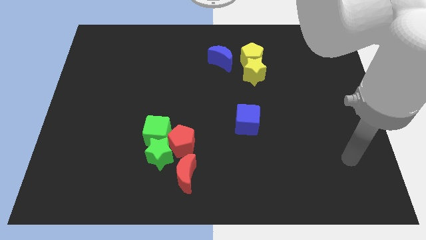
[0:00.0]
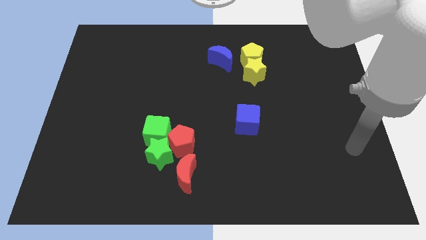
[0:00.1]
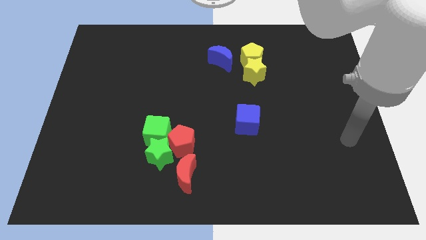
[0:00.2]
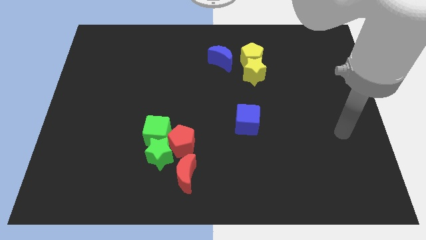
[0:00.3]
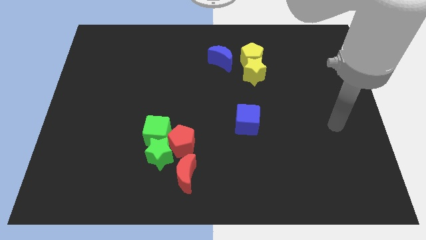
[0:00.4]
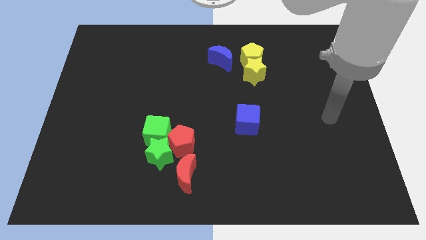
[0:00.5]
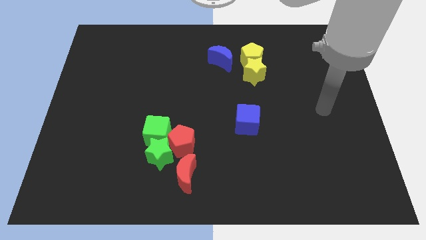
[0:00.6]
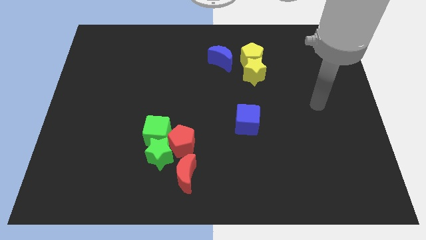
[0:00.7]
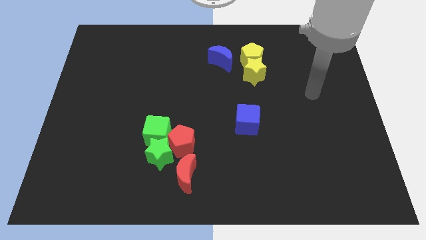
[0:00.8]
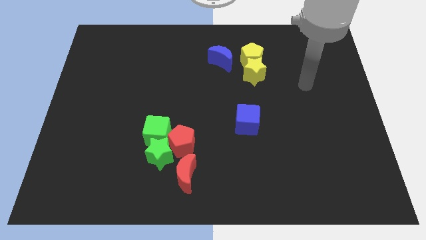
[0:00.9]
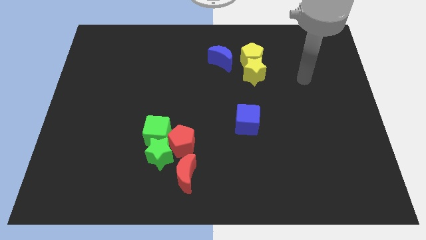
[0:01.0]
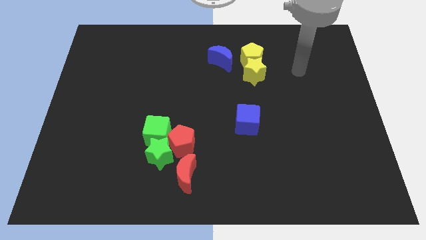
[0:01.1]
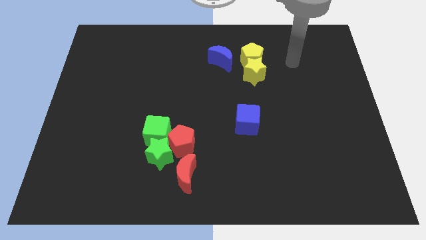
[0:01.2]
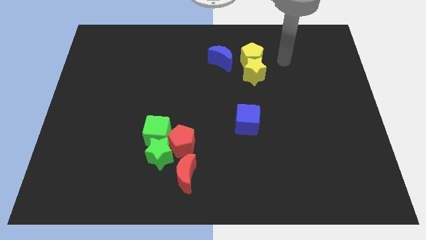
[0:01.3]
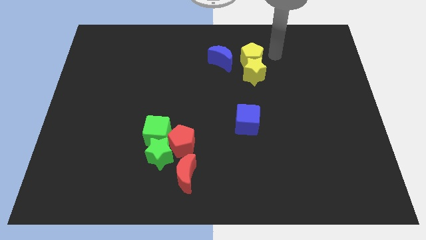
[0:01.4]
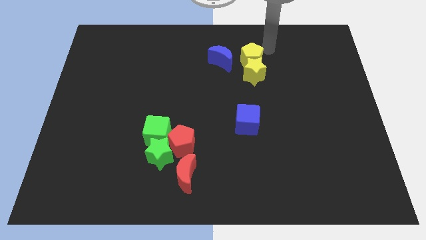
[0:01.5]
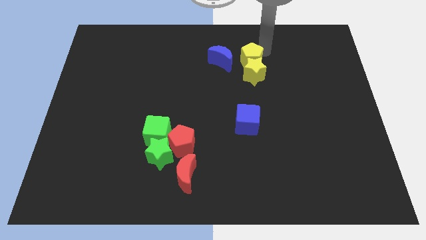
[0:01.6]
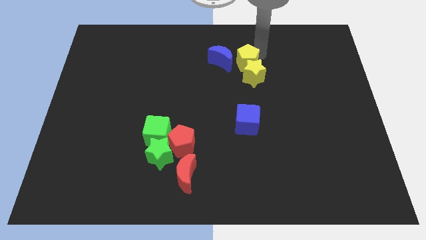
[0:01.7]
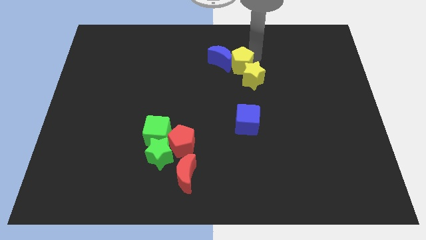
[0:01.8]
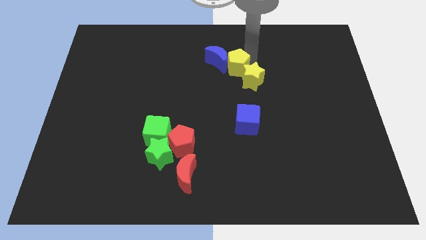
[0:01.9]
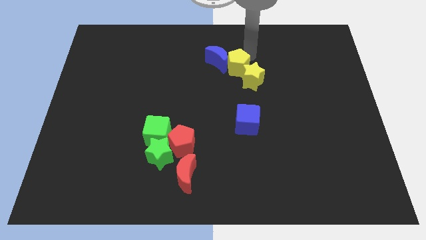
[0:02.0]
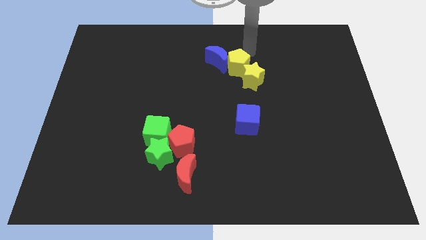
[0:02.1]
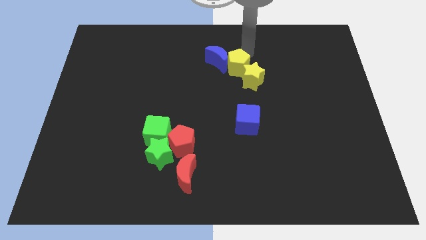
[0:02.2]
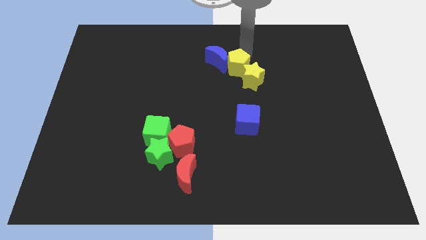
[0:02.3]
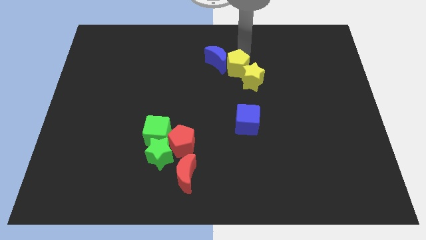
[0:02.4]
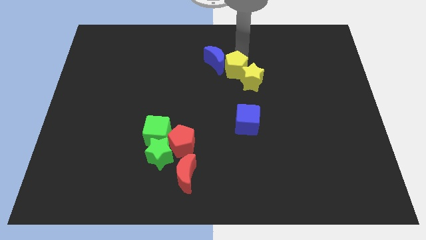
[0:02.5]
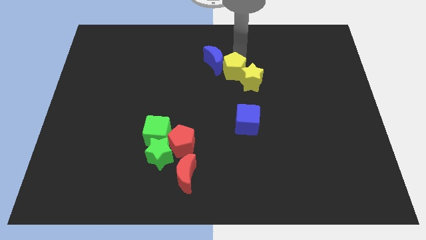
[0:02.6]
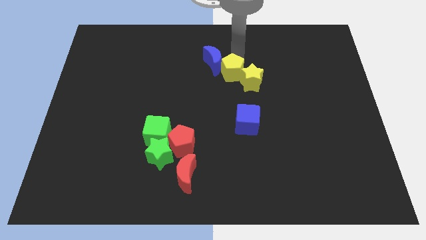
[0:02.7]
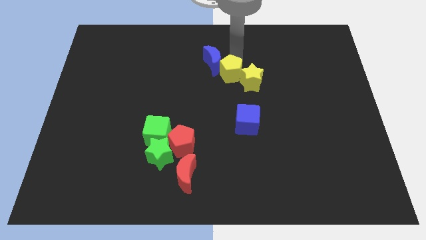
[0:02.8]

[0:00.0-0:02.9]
slide the yellow pentagon a little bit diagonally downwards and left

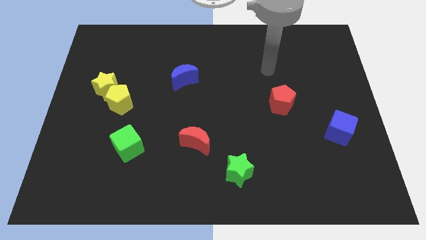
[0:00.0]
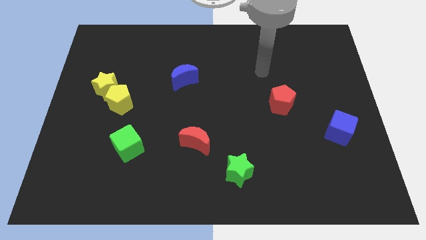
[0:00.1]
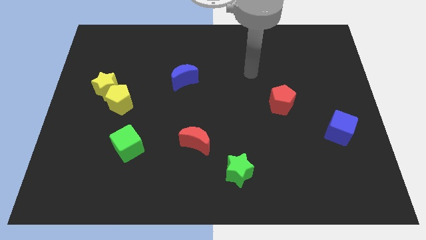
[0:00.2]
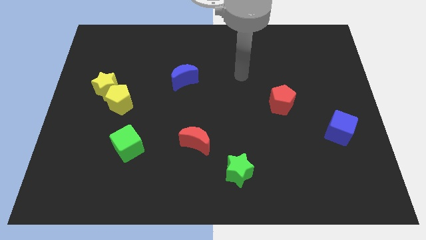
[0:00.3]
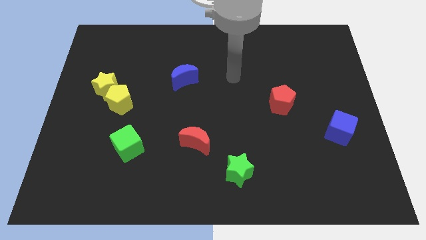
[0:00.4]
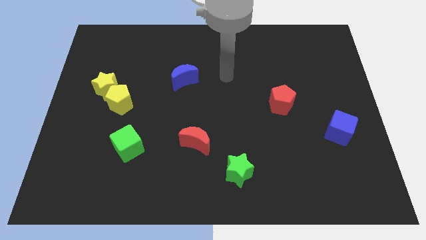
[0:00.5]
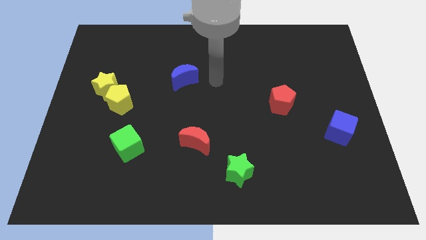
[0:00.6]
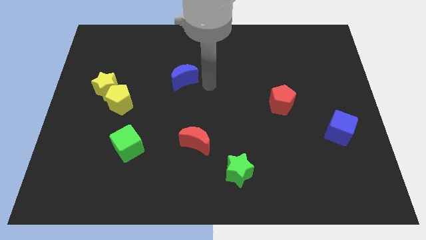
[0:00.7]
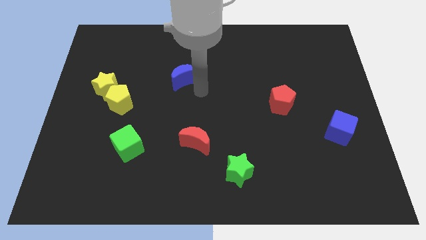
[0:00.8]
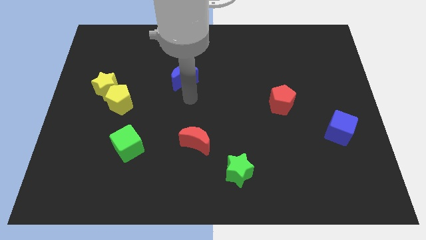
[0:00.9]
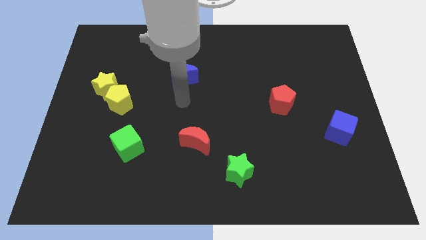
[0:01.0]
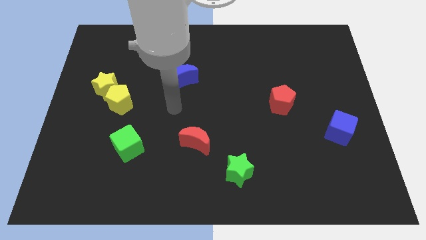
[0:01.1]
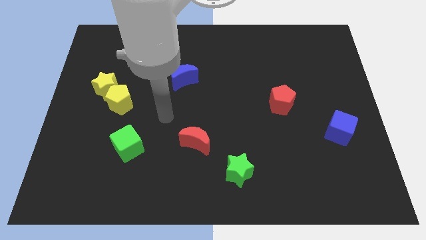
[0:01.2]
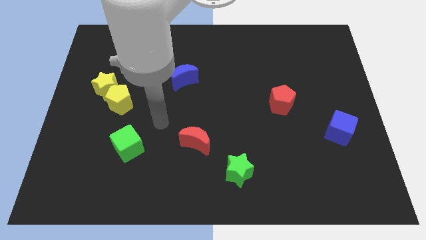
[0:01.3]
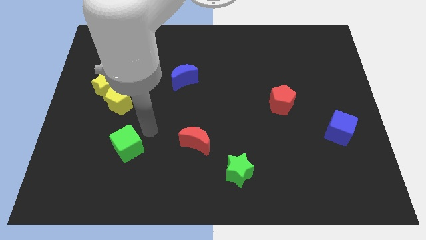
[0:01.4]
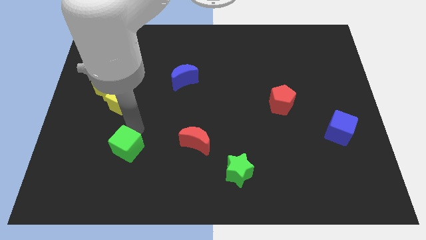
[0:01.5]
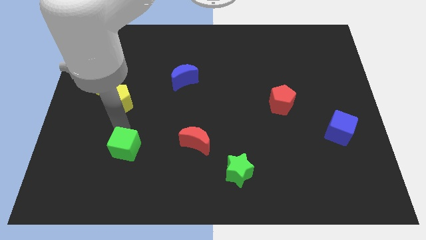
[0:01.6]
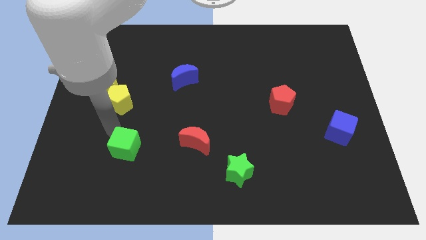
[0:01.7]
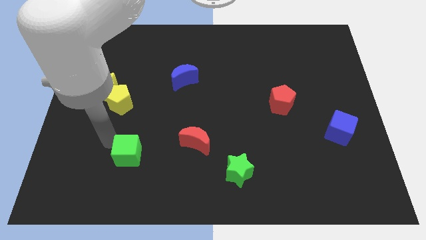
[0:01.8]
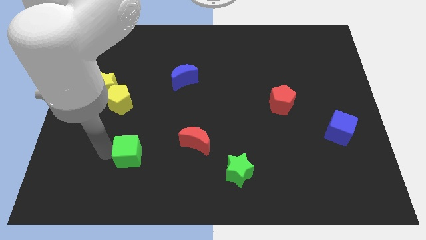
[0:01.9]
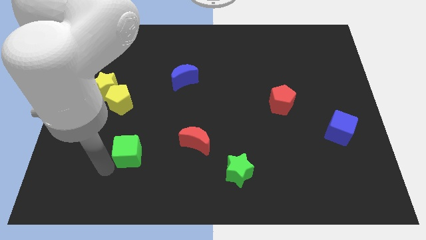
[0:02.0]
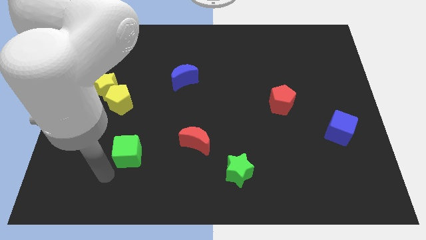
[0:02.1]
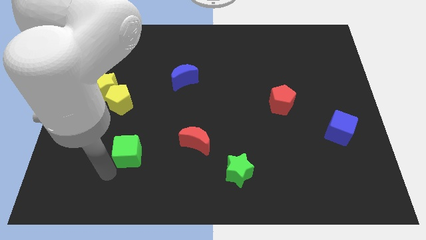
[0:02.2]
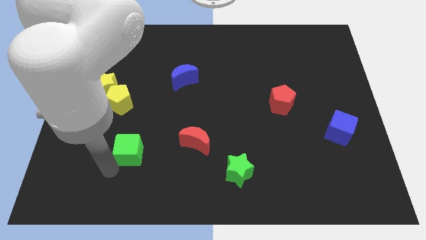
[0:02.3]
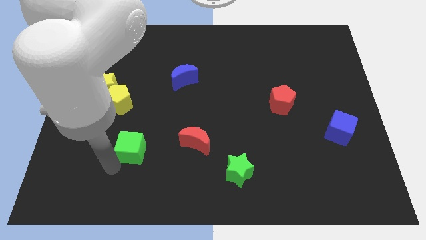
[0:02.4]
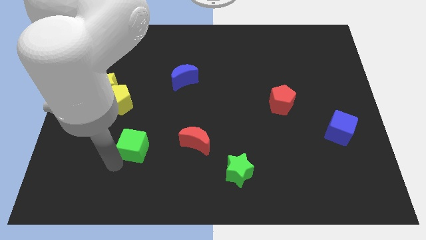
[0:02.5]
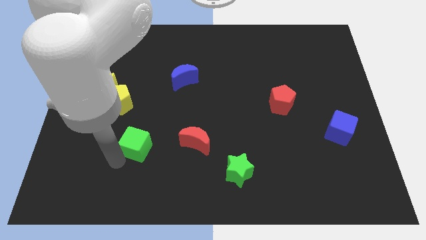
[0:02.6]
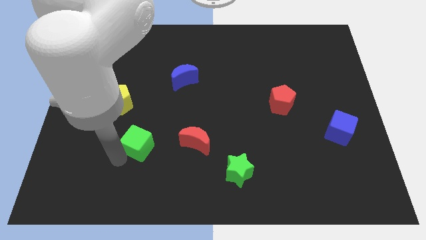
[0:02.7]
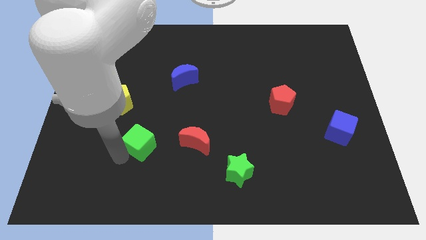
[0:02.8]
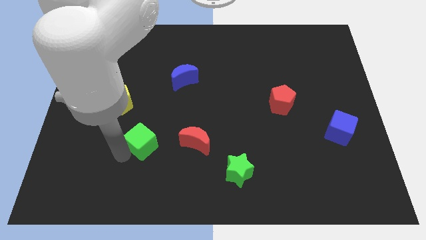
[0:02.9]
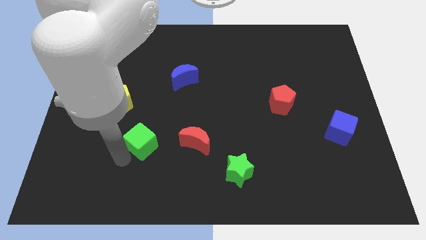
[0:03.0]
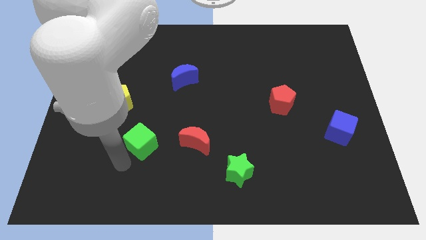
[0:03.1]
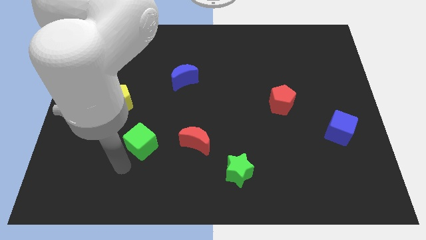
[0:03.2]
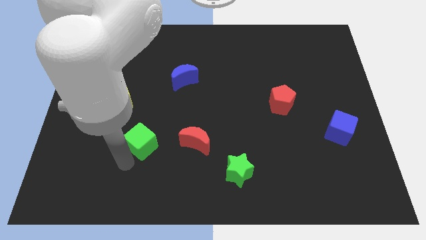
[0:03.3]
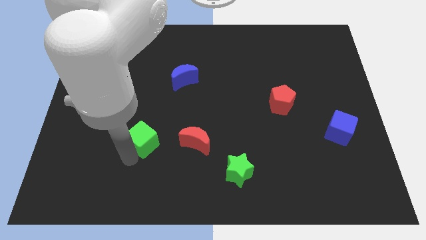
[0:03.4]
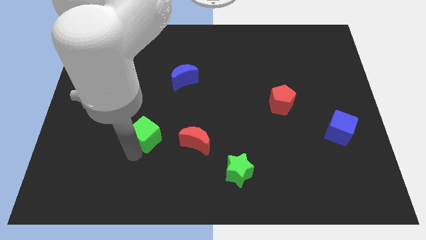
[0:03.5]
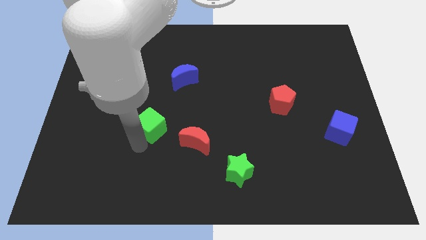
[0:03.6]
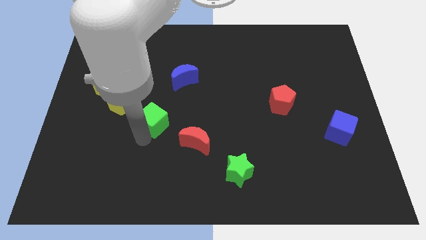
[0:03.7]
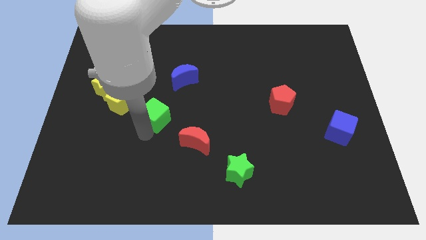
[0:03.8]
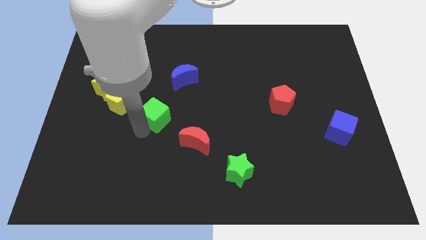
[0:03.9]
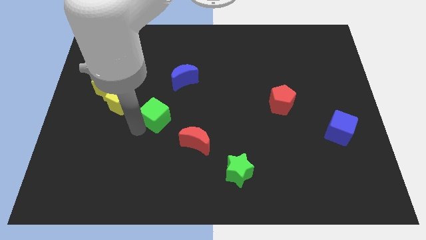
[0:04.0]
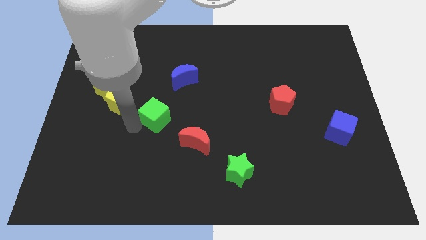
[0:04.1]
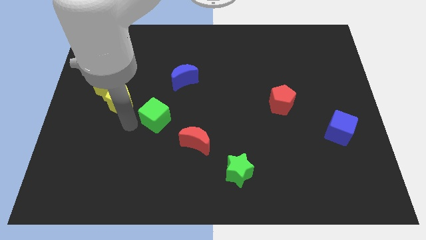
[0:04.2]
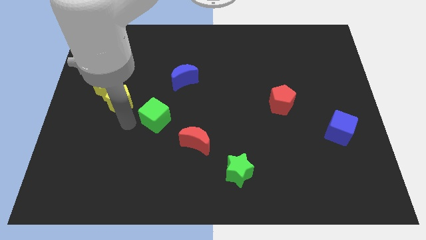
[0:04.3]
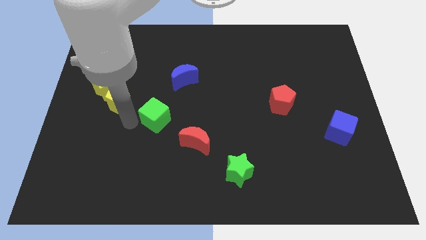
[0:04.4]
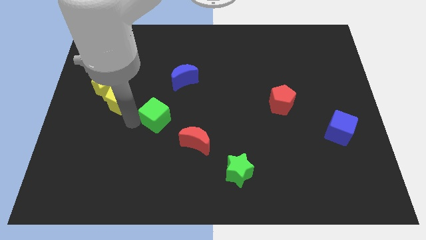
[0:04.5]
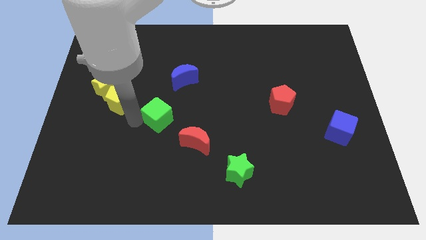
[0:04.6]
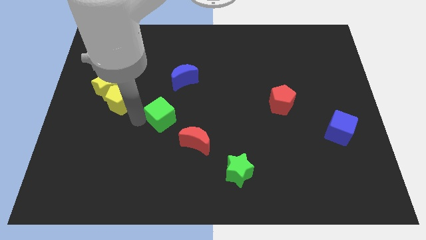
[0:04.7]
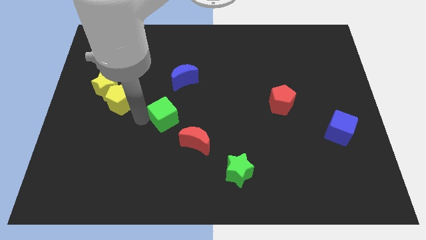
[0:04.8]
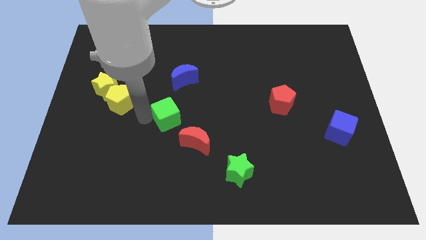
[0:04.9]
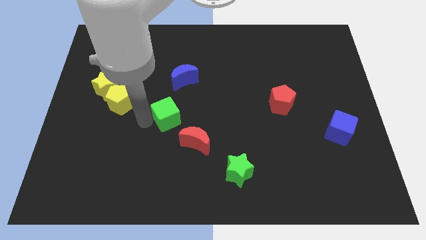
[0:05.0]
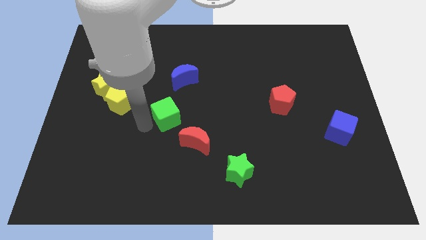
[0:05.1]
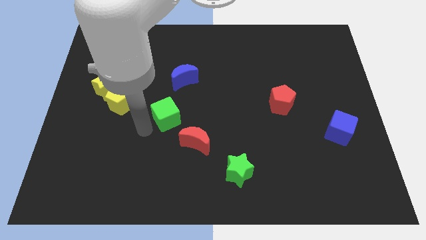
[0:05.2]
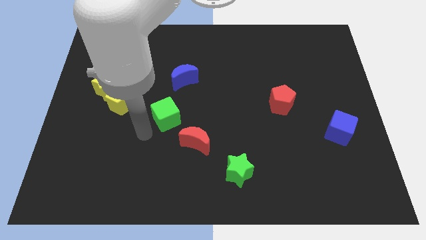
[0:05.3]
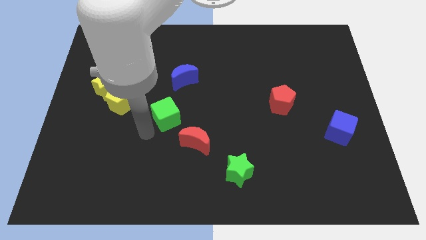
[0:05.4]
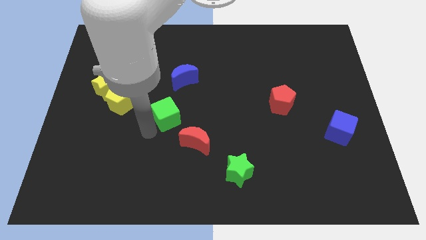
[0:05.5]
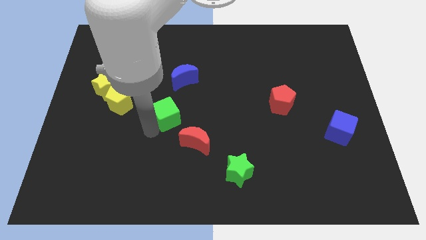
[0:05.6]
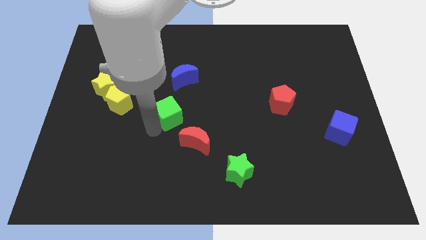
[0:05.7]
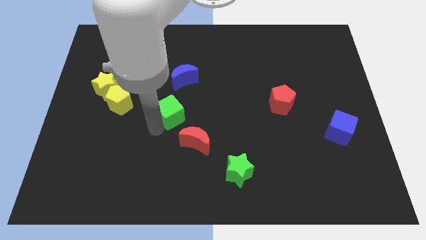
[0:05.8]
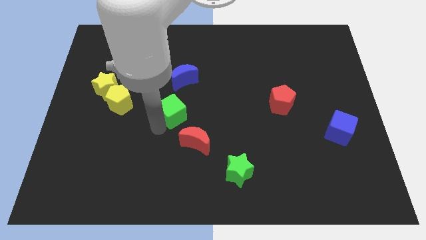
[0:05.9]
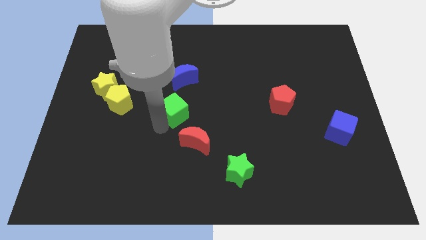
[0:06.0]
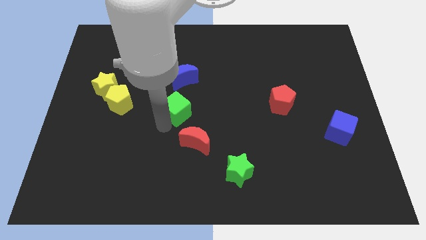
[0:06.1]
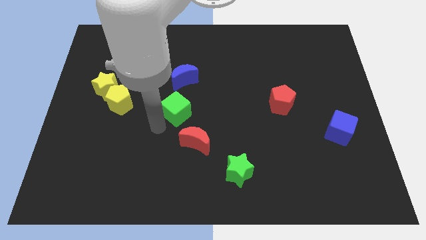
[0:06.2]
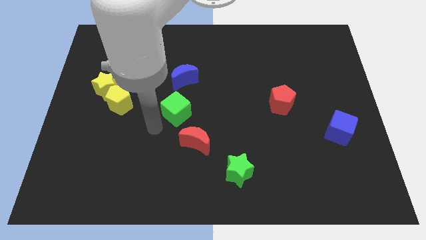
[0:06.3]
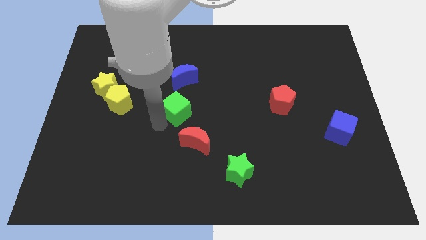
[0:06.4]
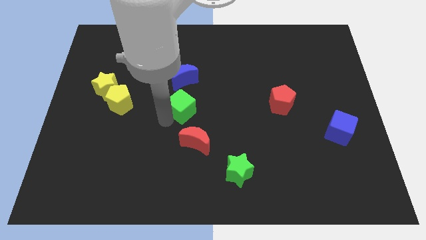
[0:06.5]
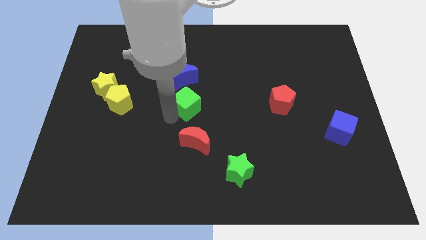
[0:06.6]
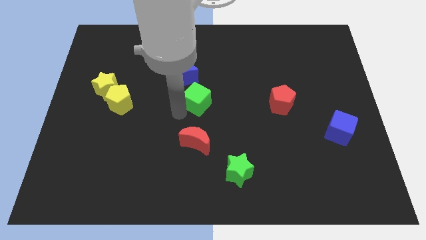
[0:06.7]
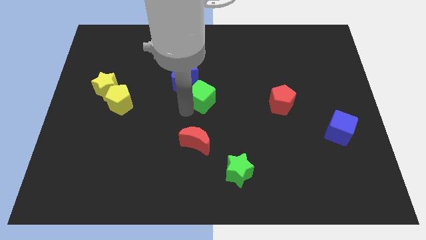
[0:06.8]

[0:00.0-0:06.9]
push the green cube up and right
